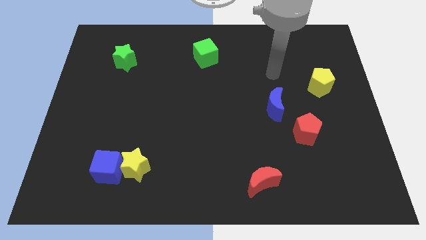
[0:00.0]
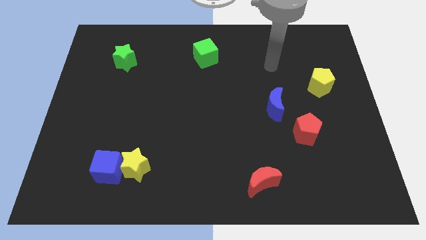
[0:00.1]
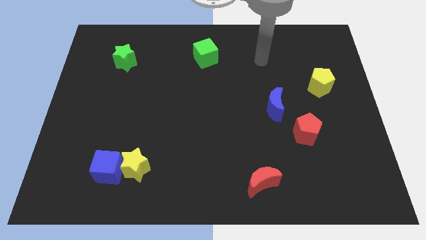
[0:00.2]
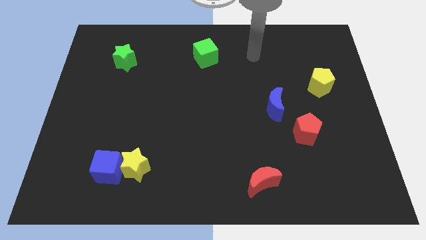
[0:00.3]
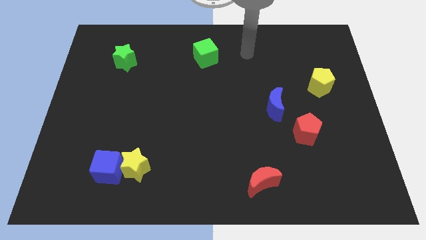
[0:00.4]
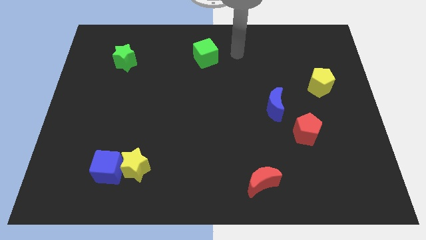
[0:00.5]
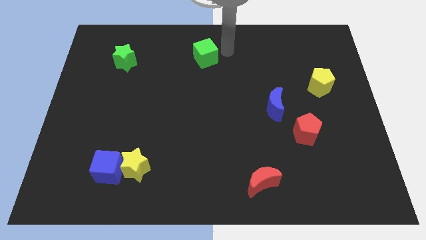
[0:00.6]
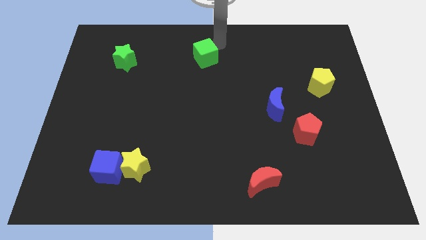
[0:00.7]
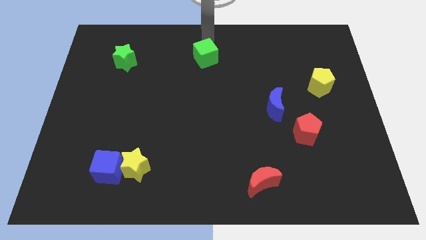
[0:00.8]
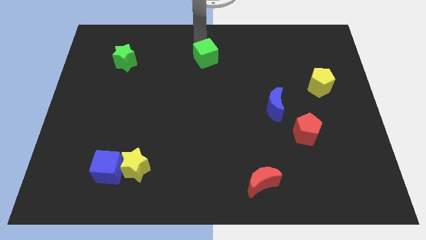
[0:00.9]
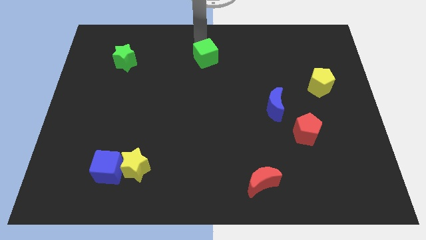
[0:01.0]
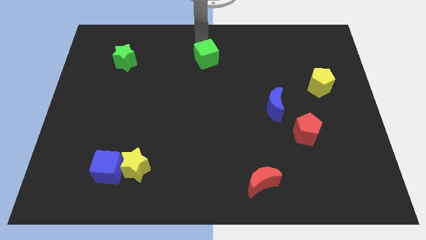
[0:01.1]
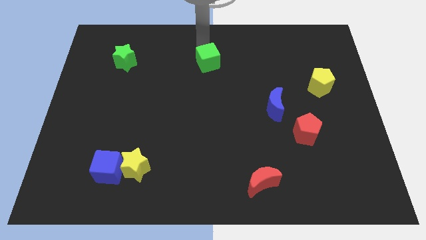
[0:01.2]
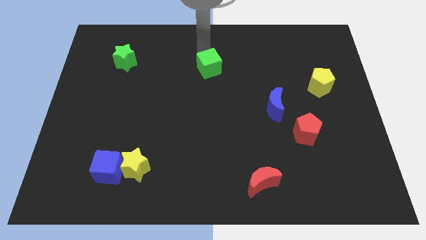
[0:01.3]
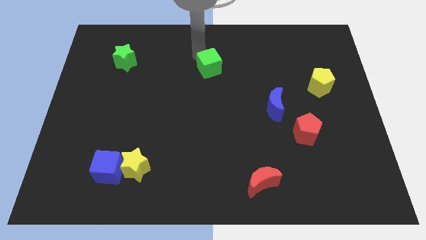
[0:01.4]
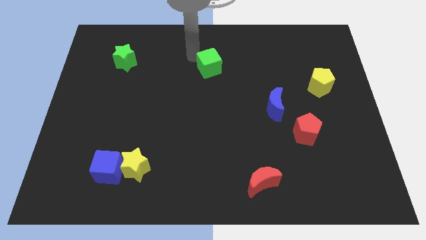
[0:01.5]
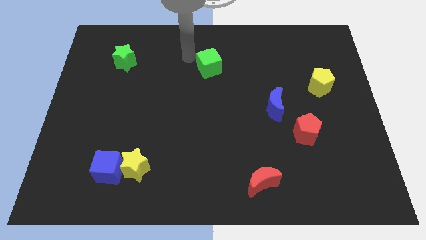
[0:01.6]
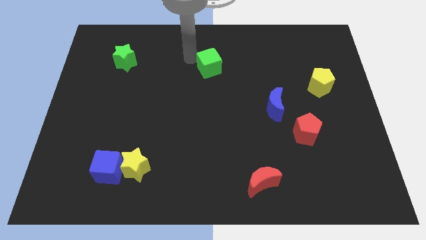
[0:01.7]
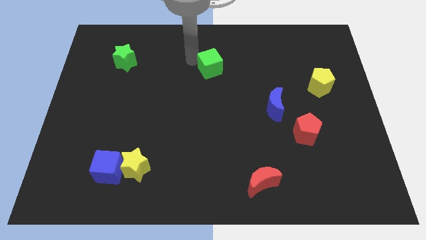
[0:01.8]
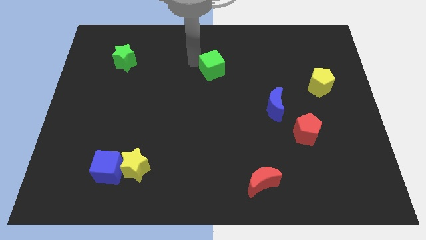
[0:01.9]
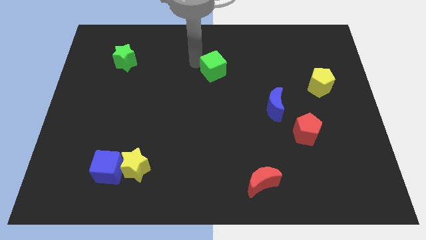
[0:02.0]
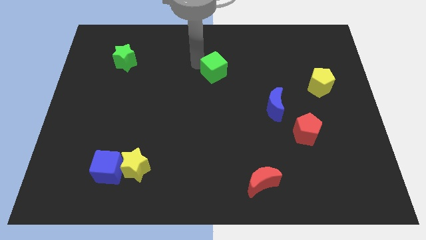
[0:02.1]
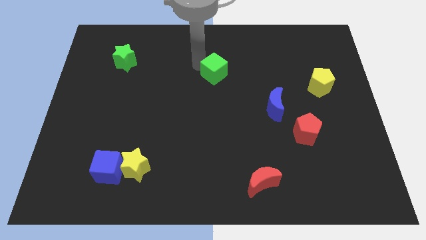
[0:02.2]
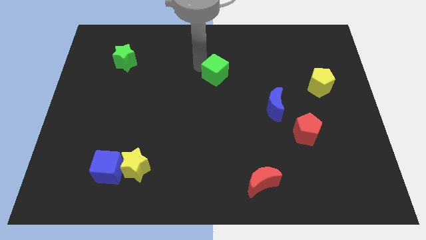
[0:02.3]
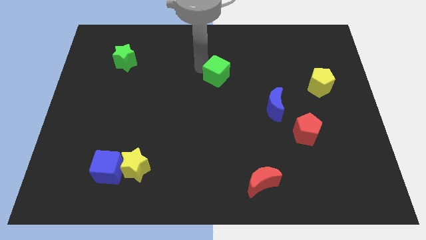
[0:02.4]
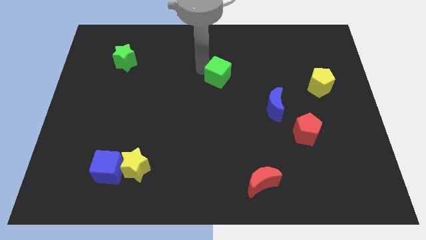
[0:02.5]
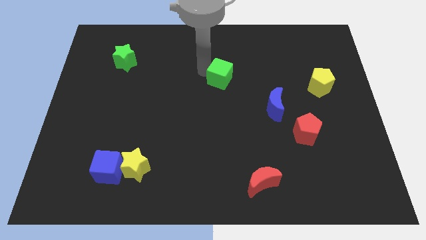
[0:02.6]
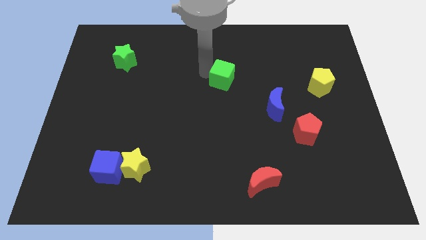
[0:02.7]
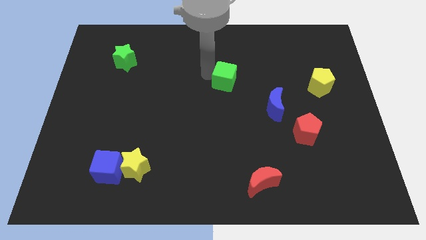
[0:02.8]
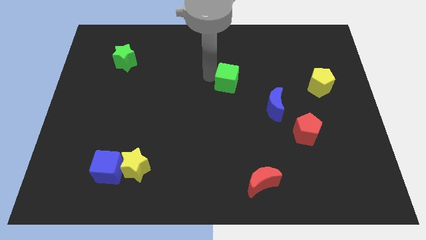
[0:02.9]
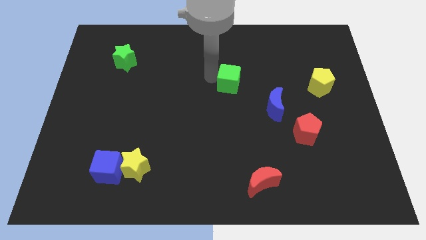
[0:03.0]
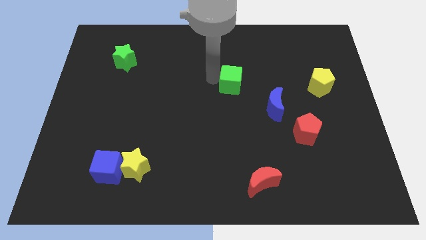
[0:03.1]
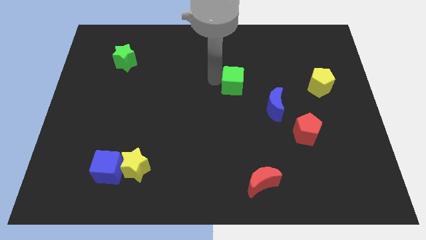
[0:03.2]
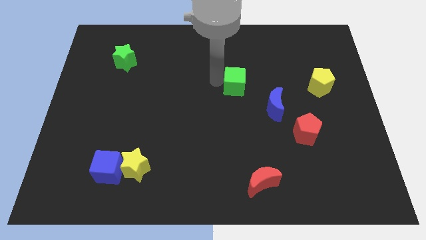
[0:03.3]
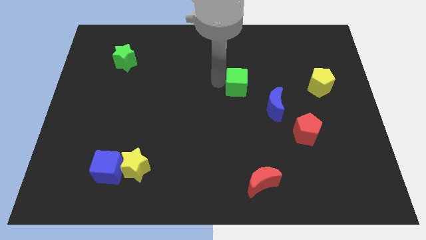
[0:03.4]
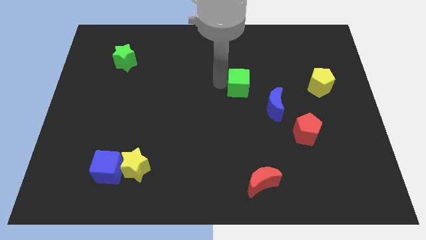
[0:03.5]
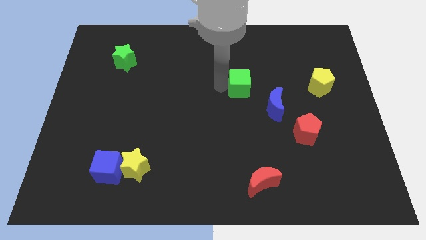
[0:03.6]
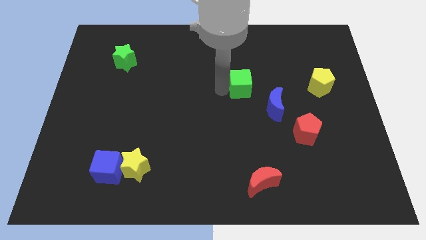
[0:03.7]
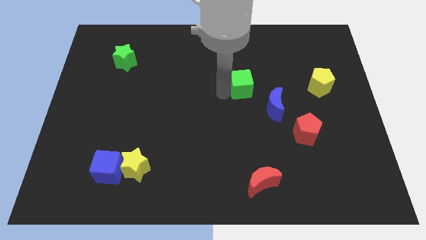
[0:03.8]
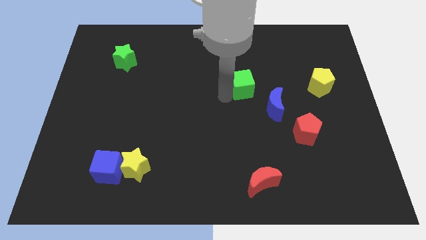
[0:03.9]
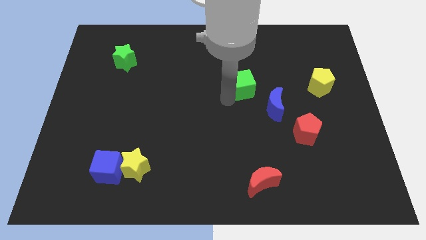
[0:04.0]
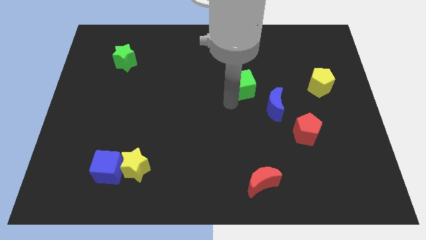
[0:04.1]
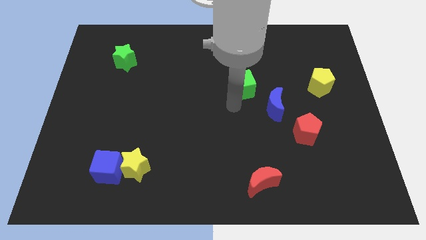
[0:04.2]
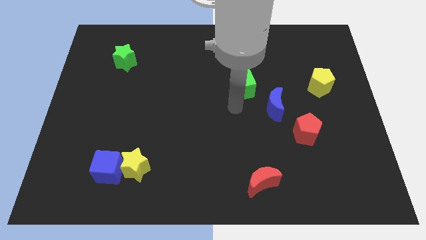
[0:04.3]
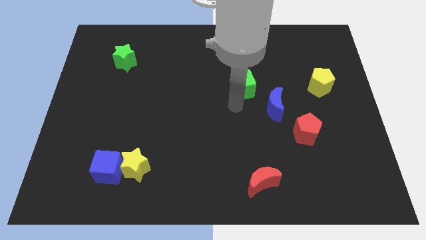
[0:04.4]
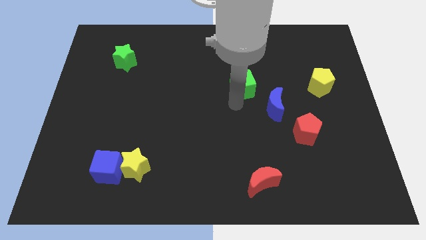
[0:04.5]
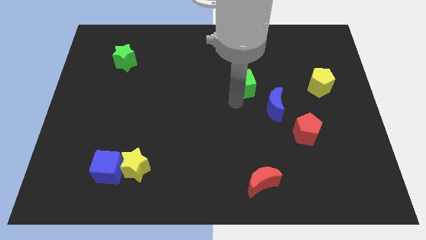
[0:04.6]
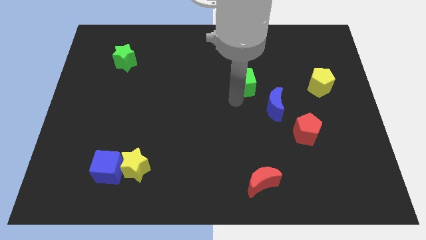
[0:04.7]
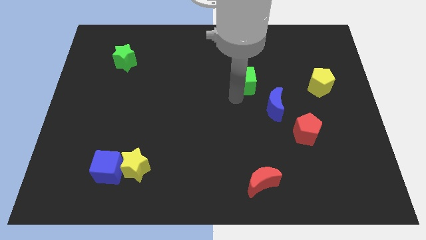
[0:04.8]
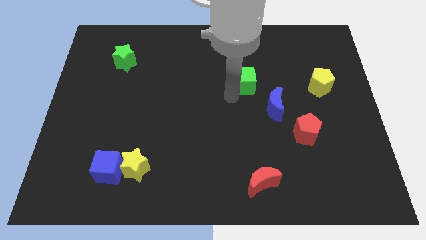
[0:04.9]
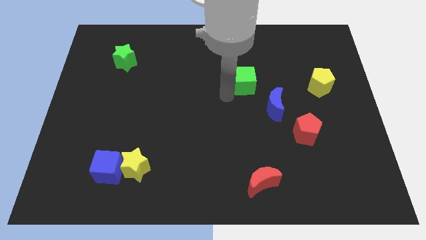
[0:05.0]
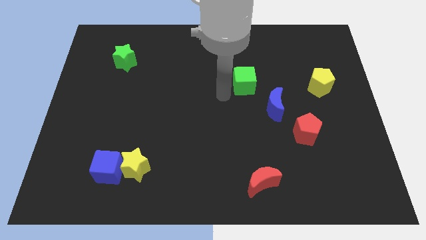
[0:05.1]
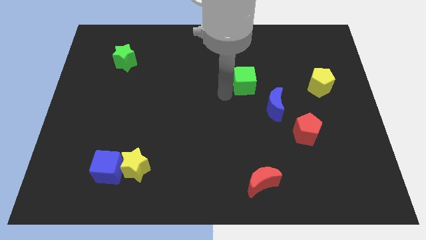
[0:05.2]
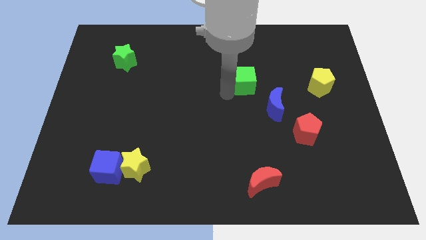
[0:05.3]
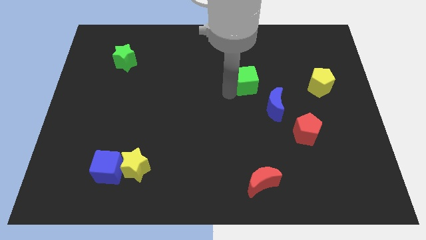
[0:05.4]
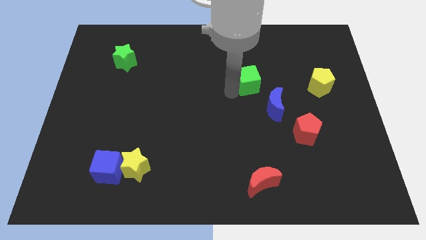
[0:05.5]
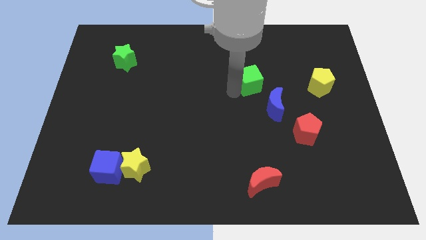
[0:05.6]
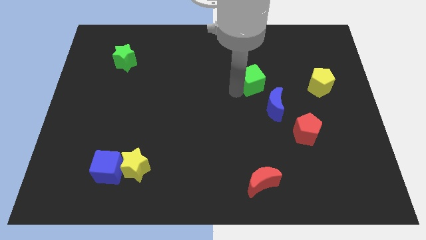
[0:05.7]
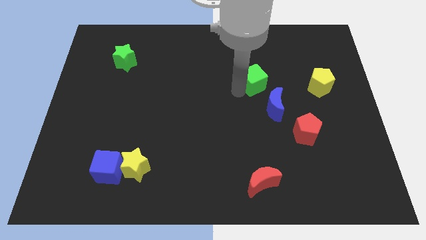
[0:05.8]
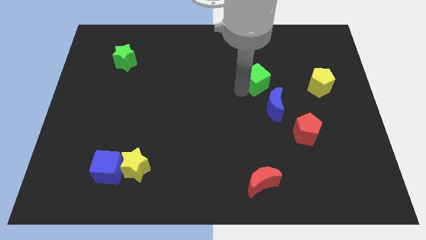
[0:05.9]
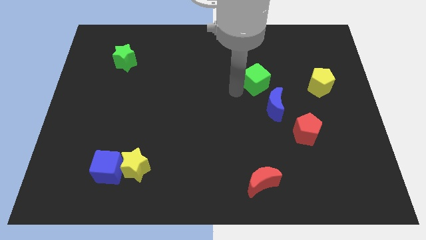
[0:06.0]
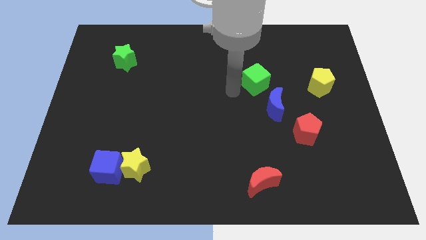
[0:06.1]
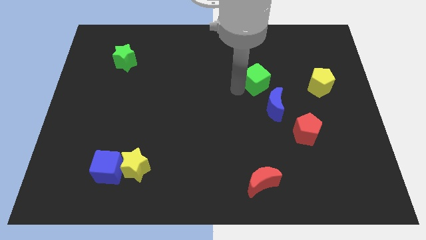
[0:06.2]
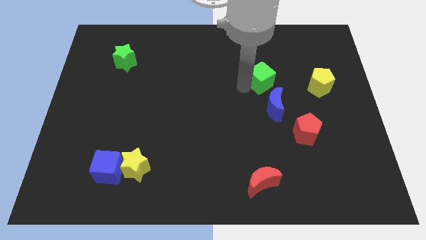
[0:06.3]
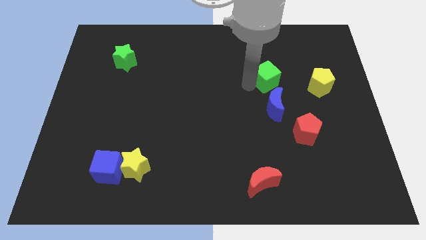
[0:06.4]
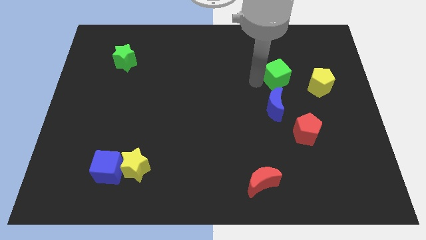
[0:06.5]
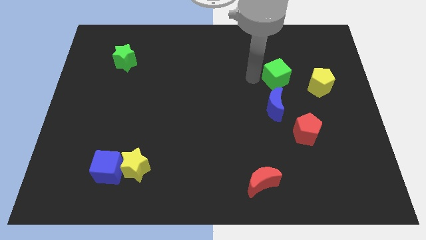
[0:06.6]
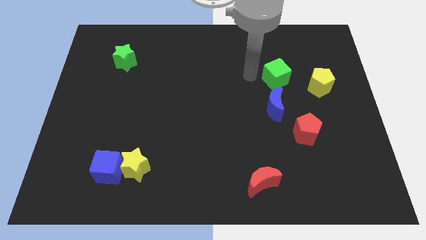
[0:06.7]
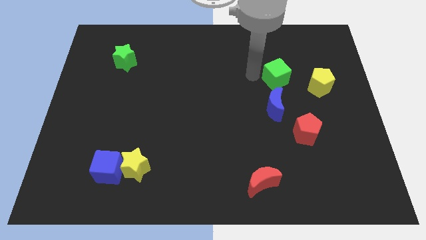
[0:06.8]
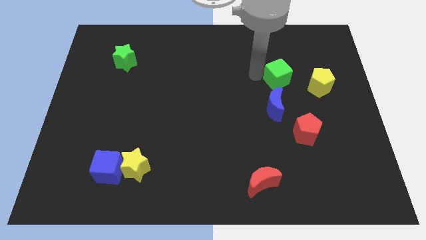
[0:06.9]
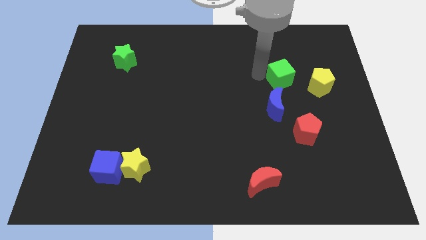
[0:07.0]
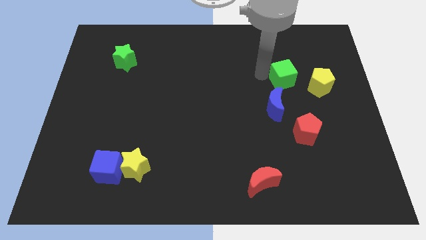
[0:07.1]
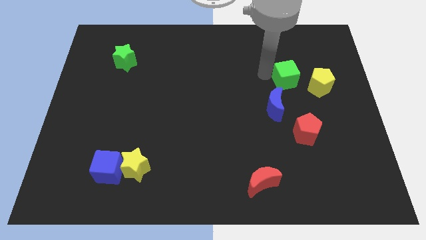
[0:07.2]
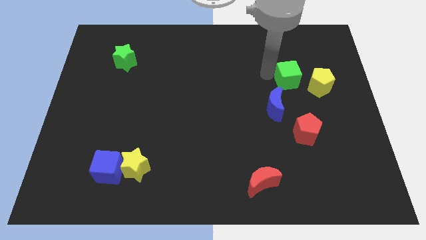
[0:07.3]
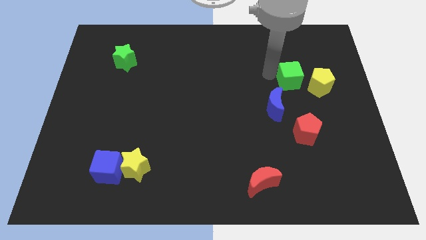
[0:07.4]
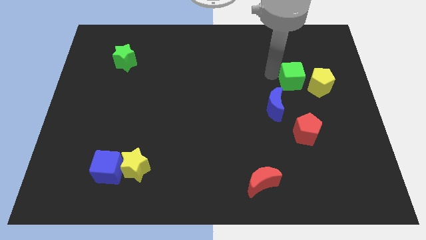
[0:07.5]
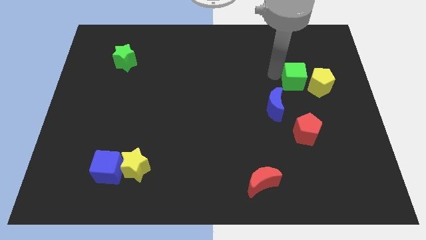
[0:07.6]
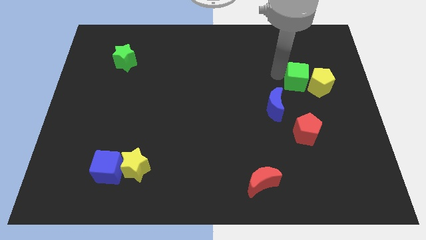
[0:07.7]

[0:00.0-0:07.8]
slide the green cube towards the yellow pentagon
